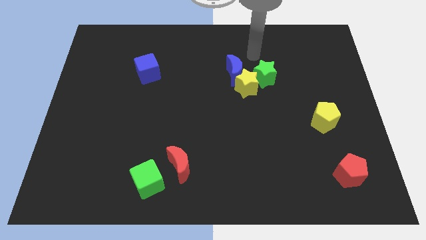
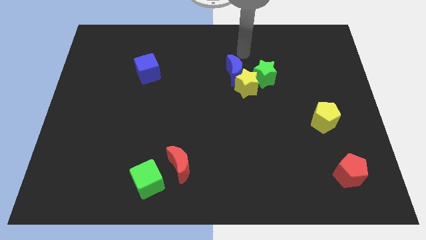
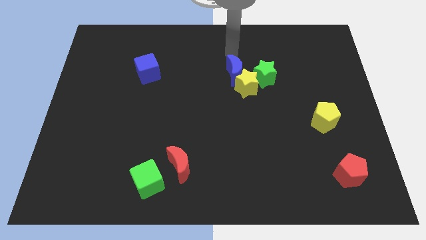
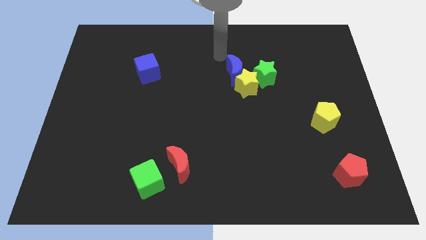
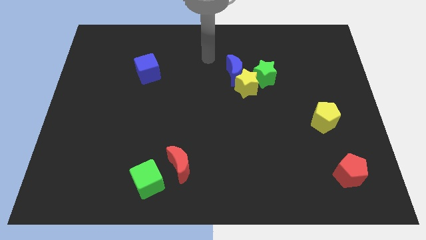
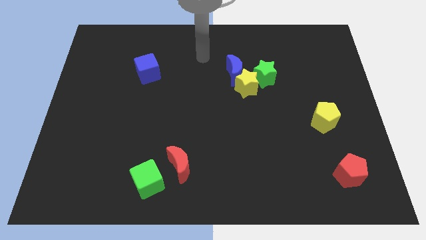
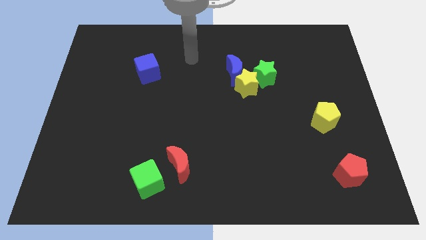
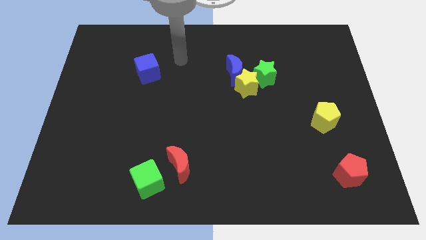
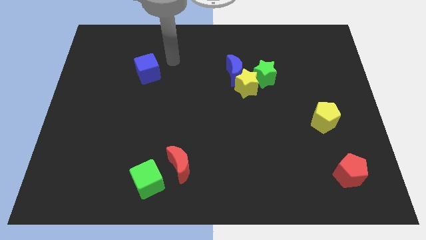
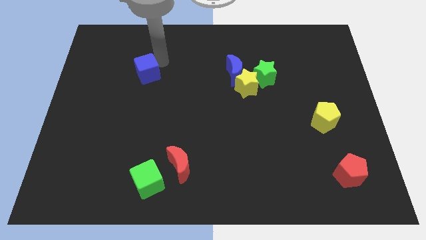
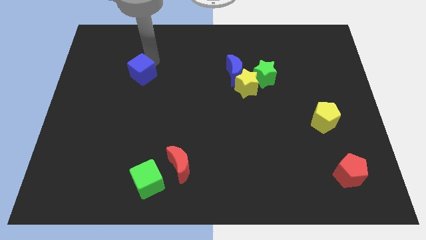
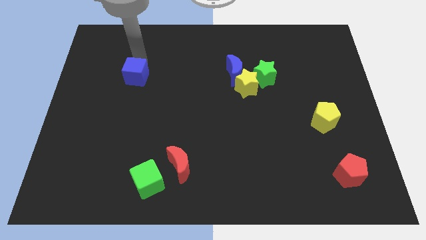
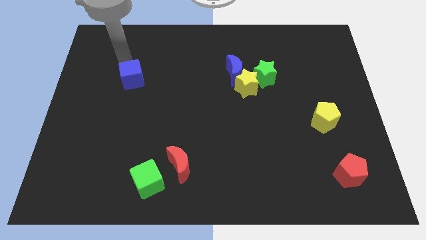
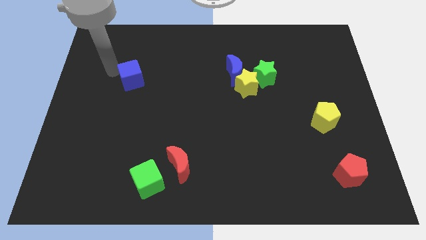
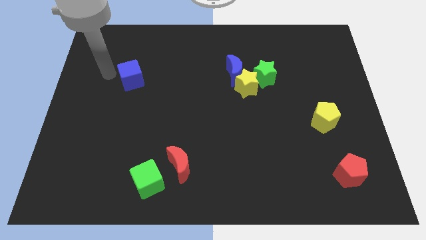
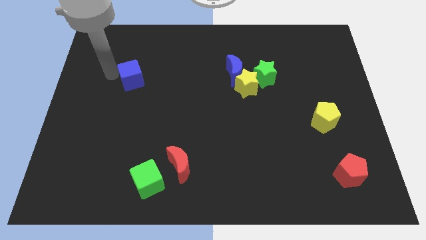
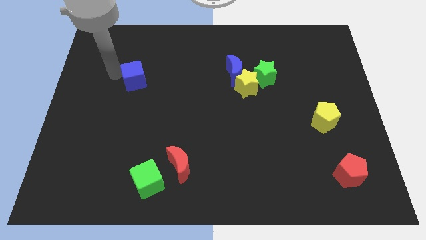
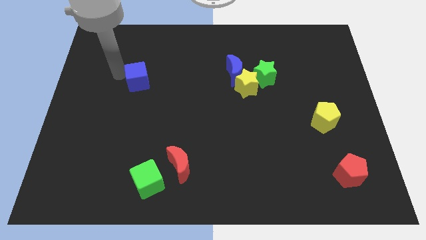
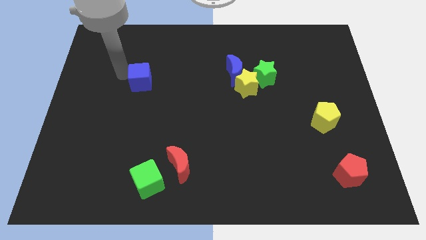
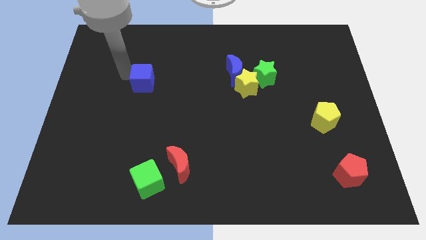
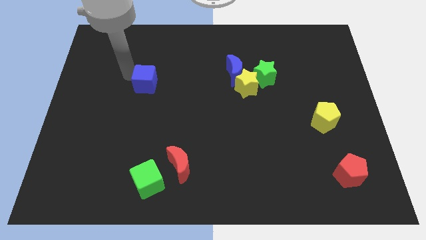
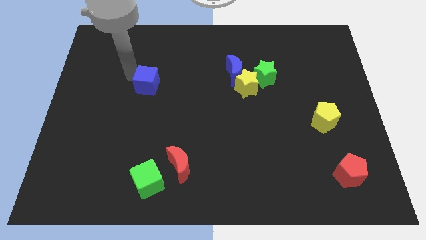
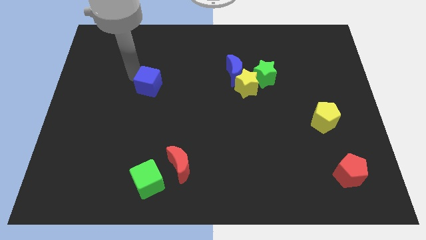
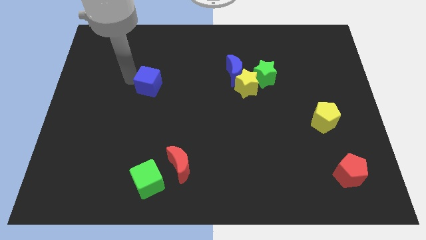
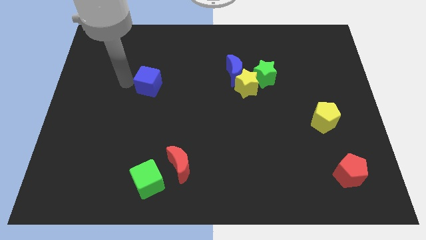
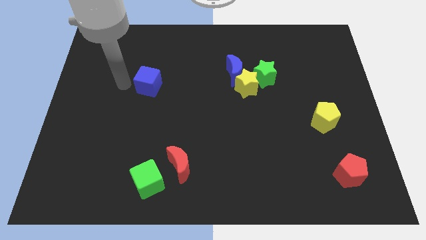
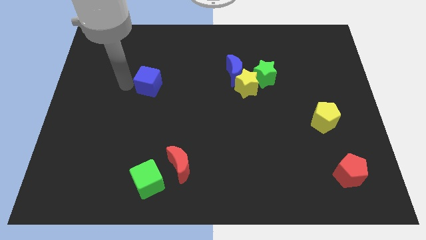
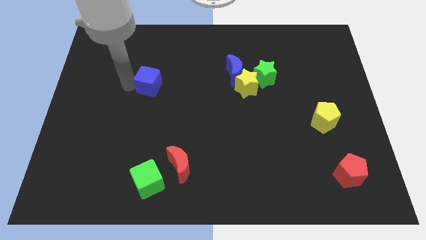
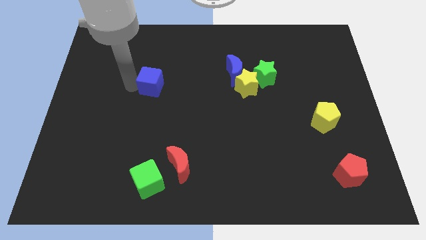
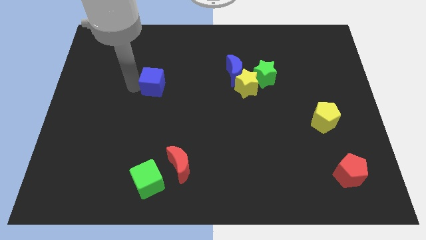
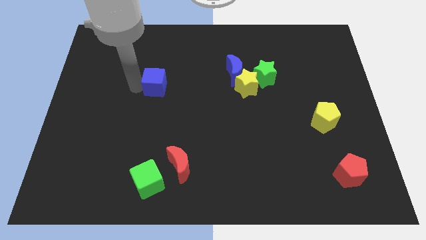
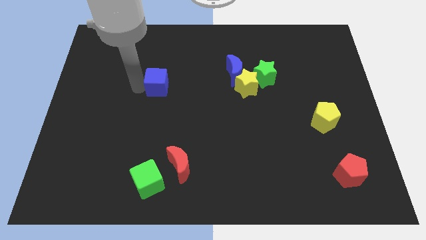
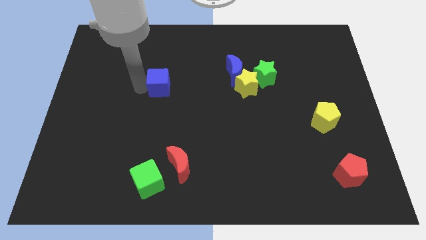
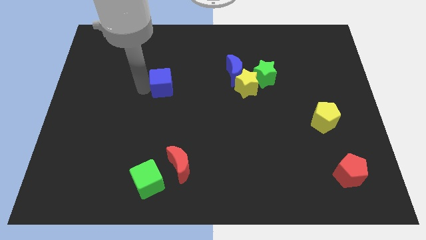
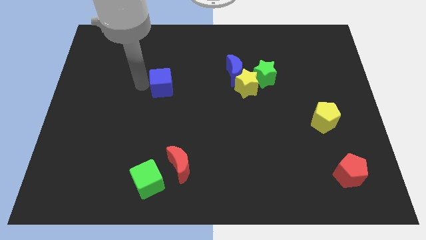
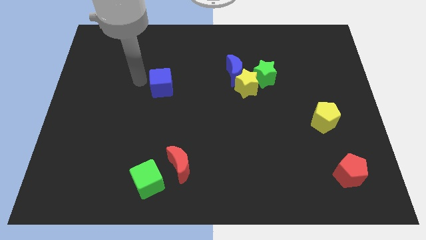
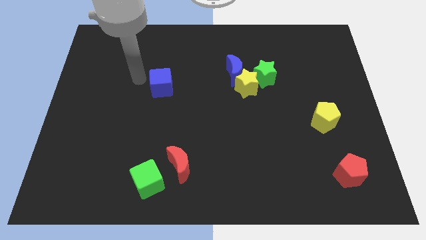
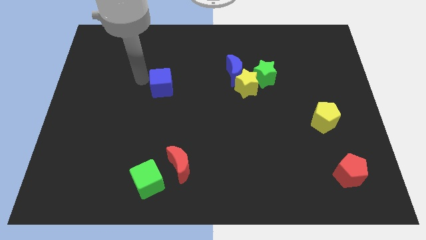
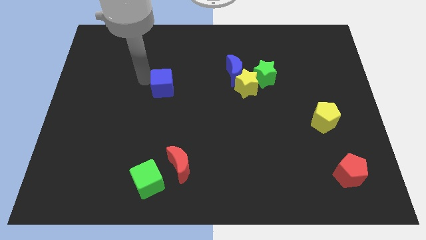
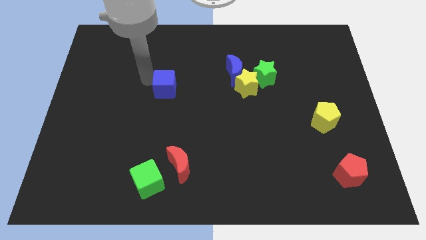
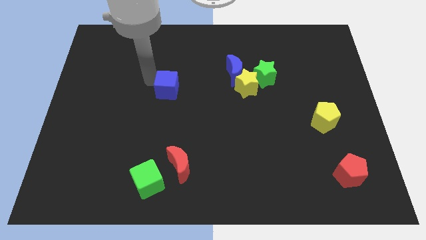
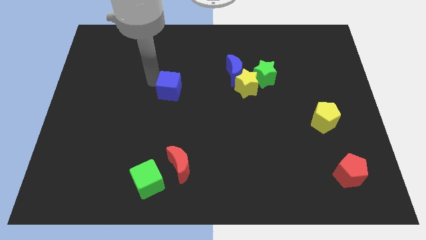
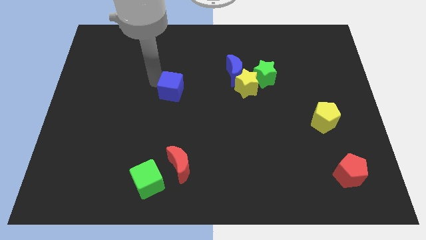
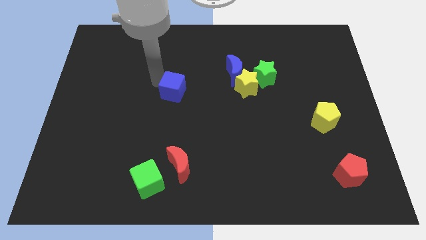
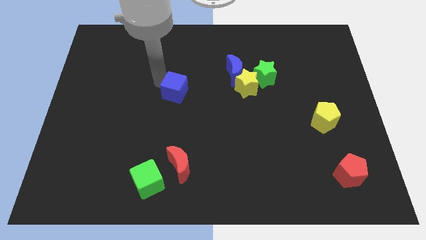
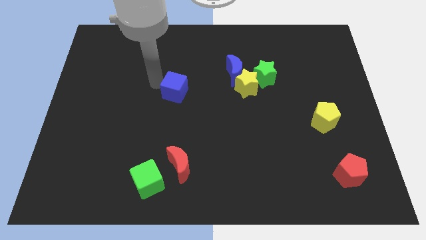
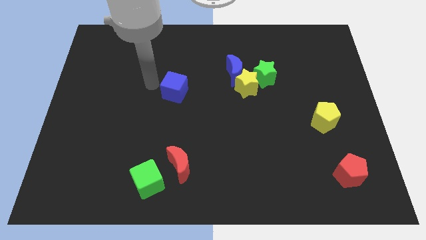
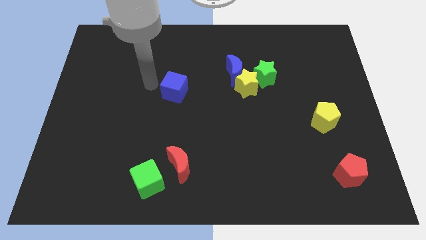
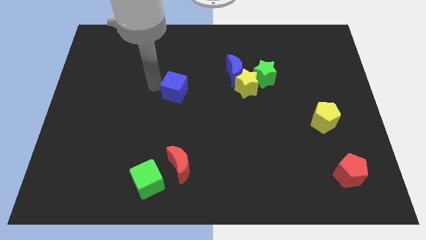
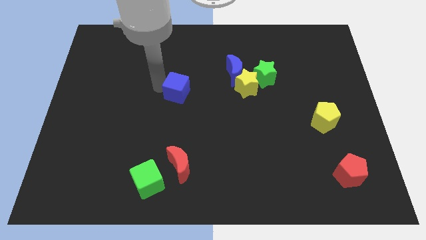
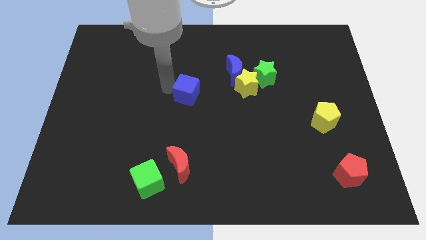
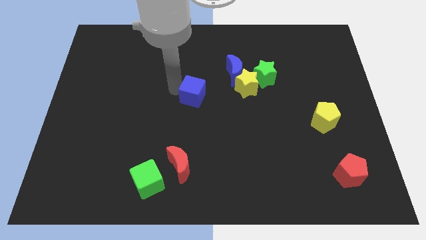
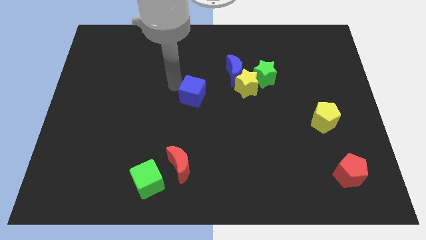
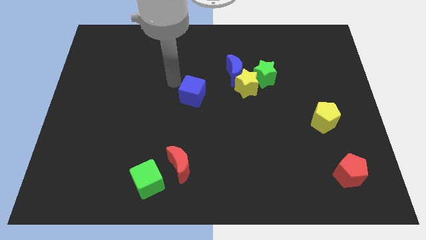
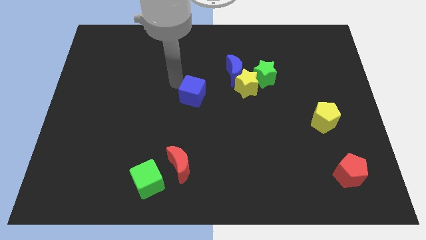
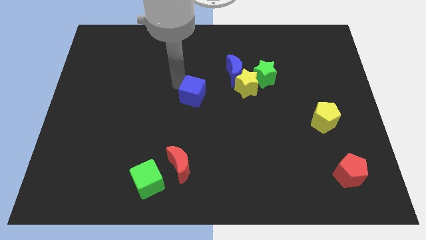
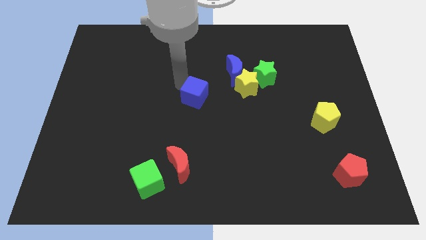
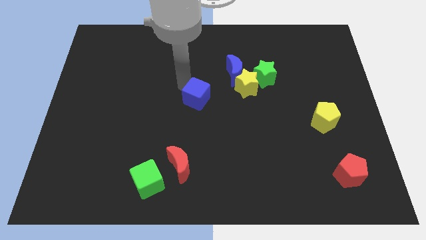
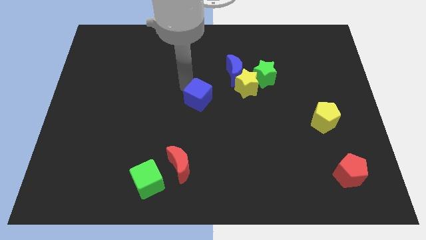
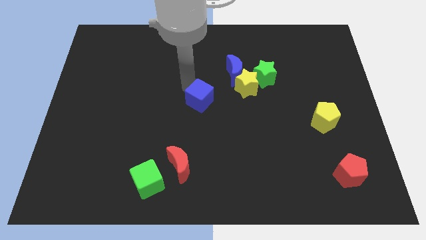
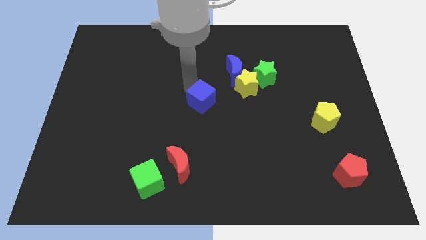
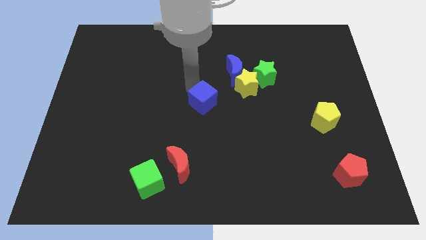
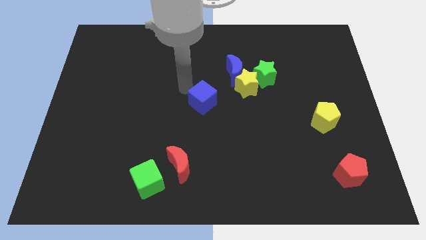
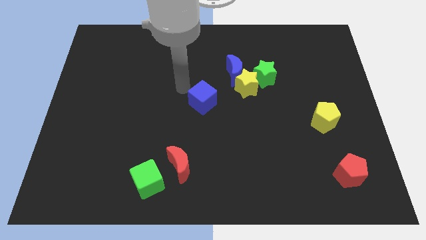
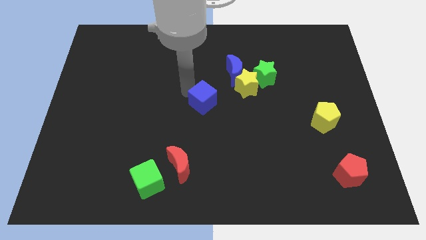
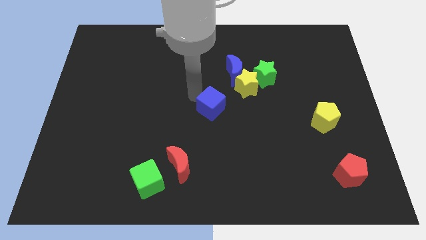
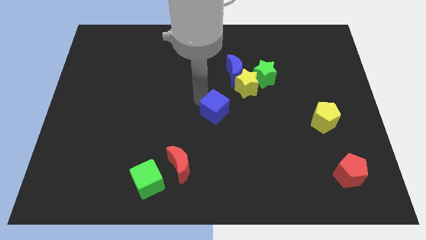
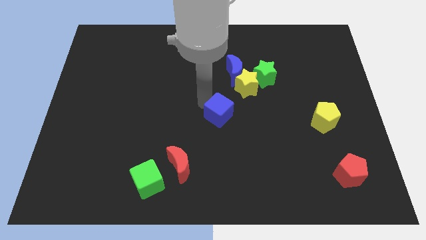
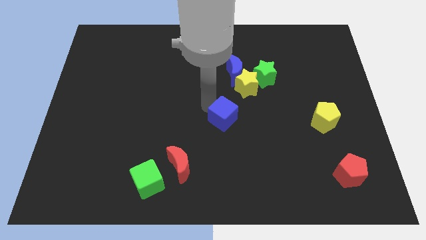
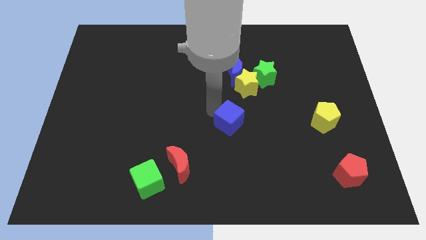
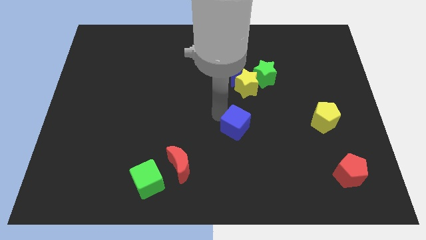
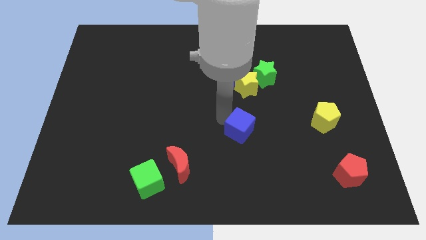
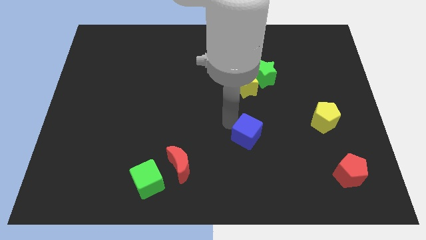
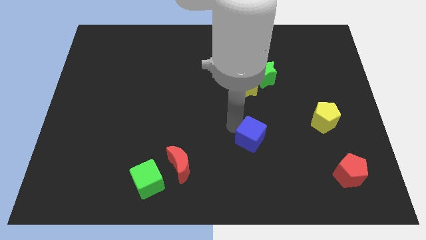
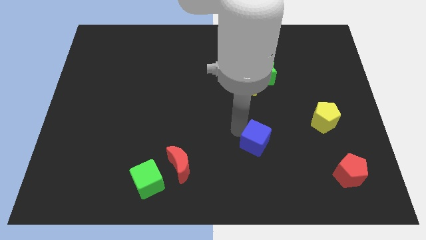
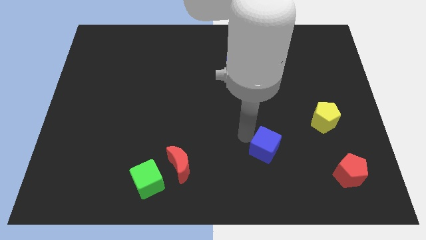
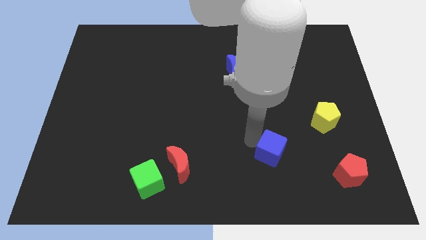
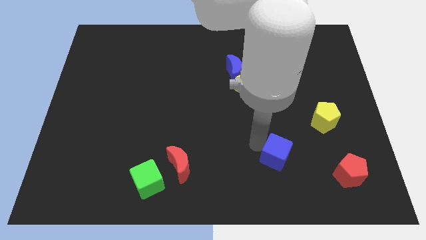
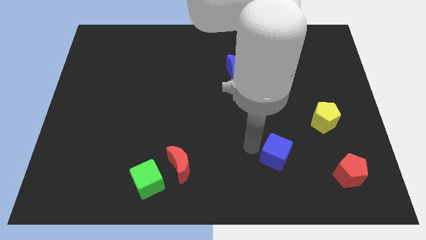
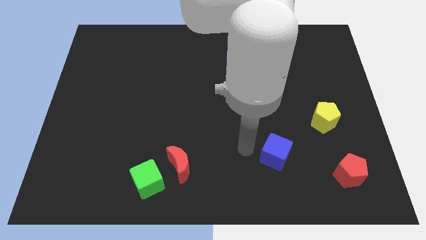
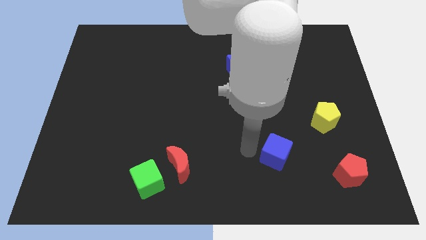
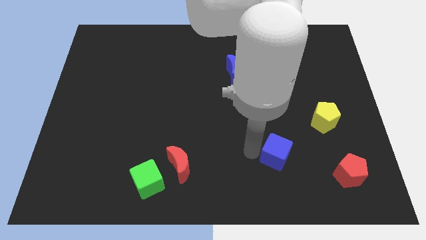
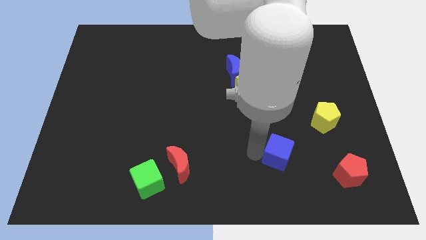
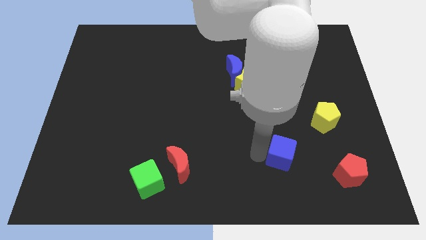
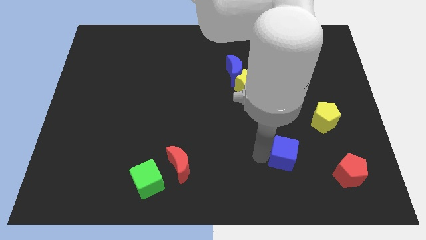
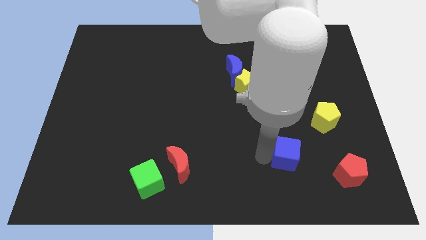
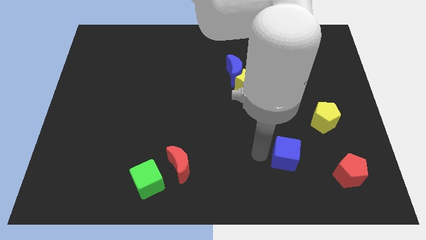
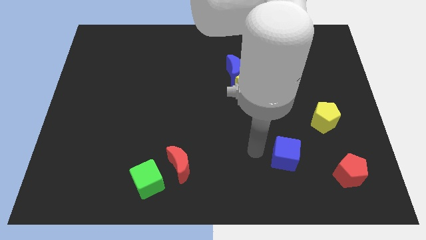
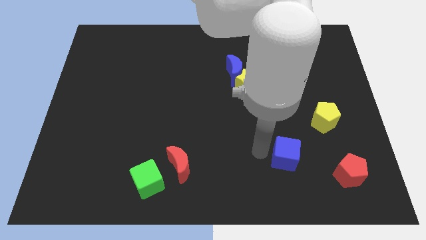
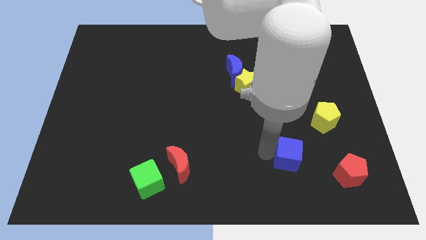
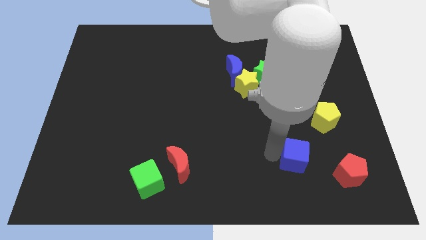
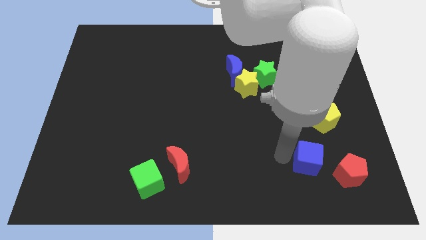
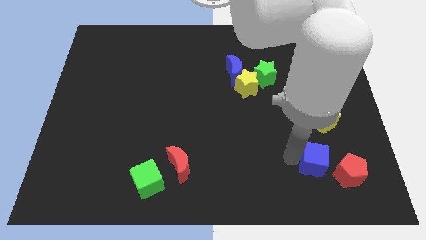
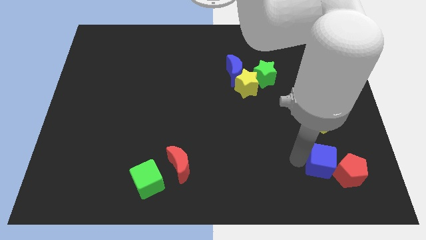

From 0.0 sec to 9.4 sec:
put the blue cube to the red pentagon
